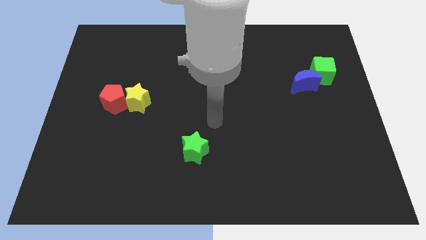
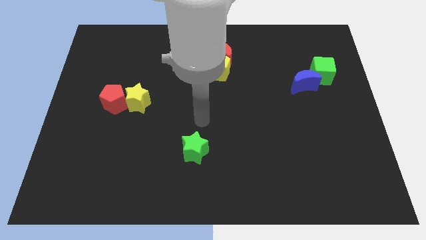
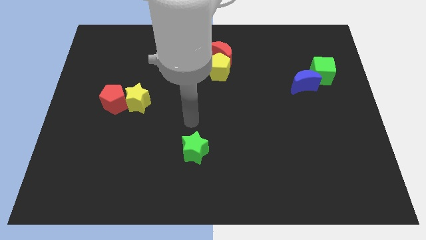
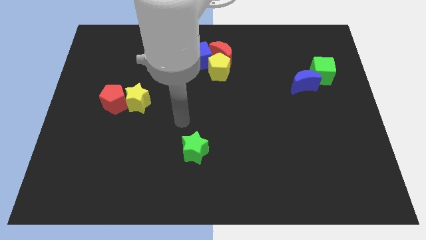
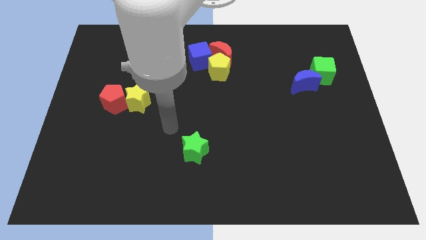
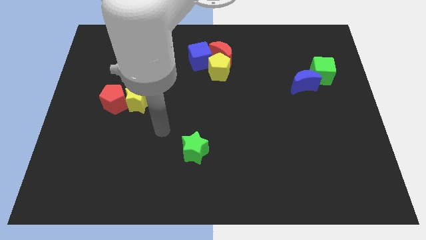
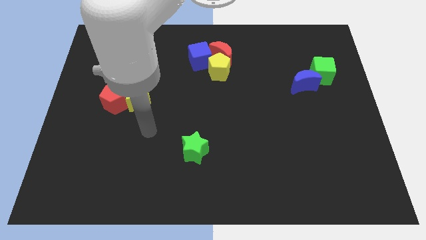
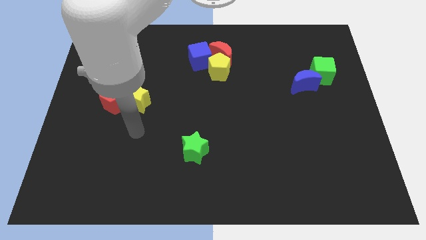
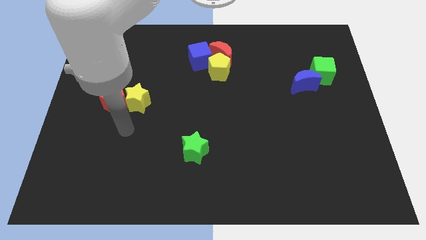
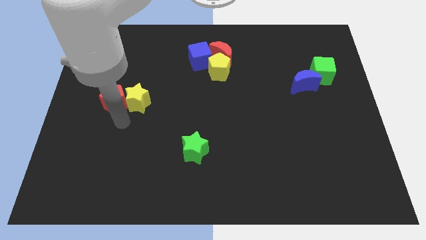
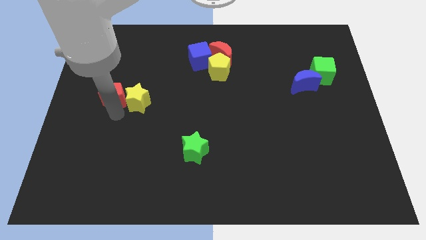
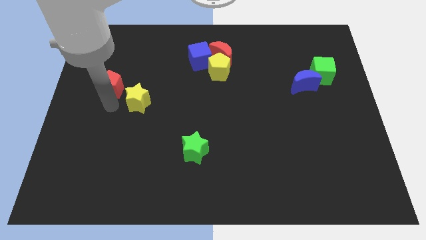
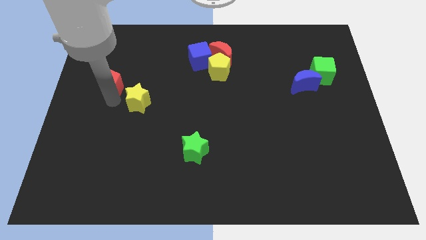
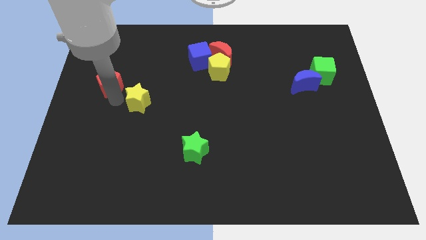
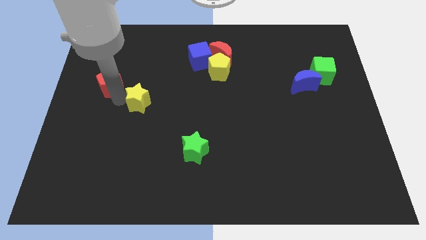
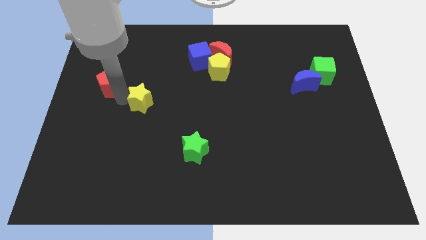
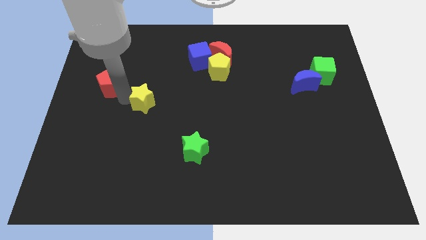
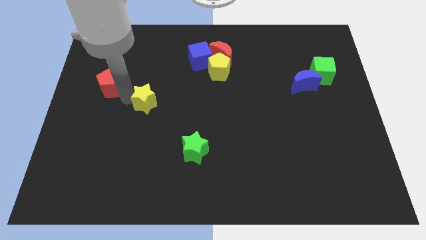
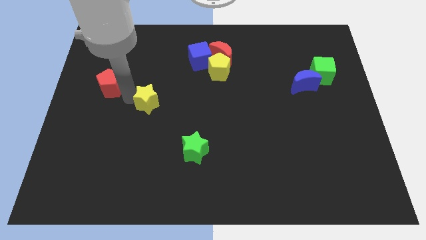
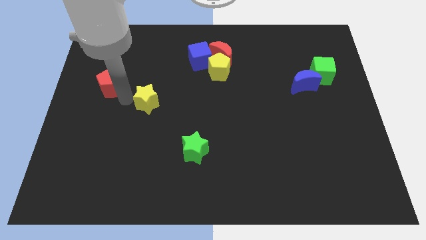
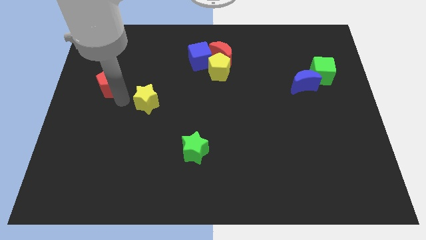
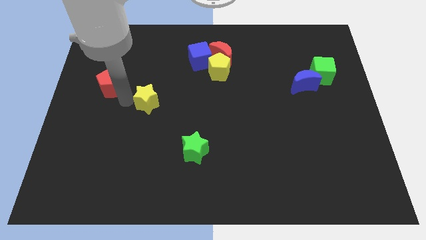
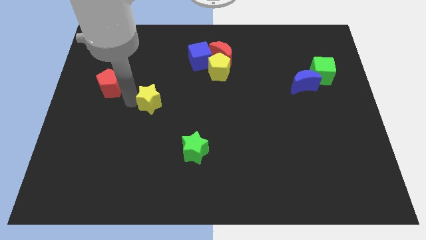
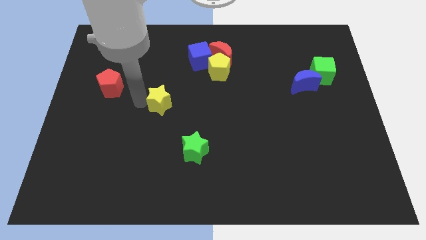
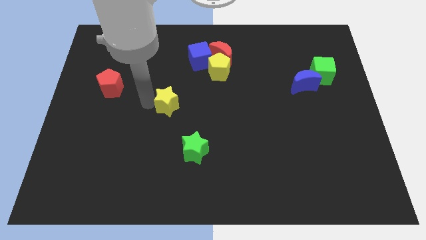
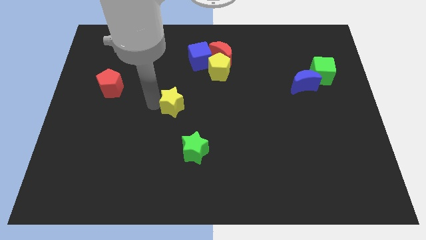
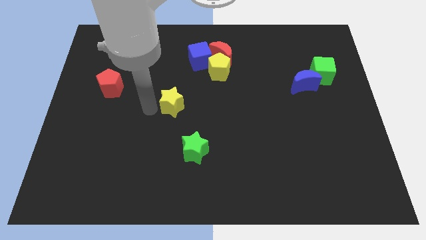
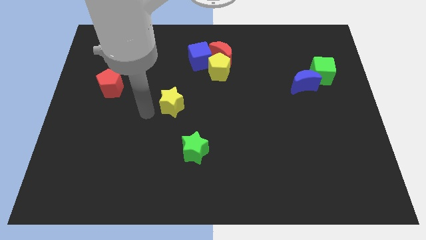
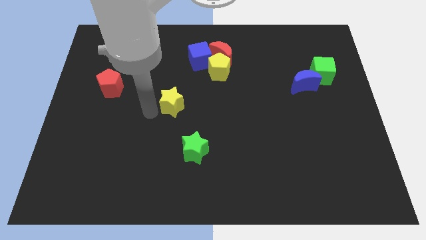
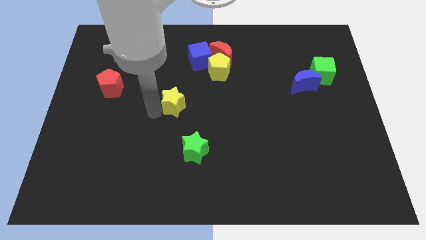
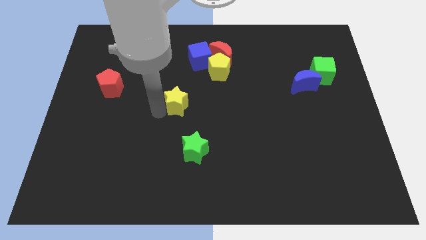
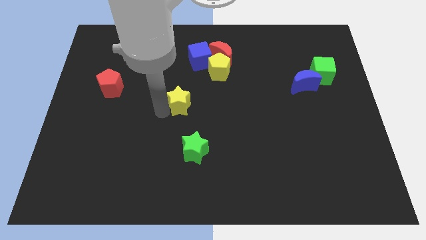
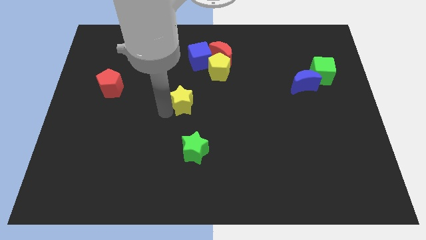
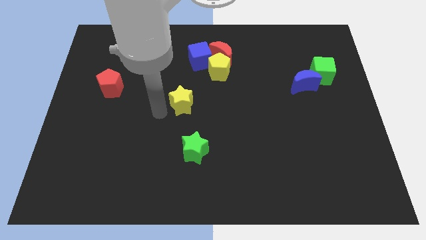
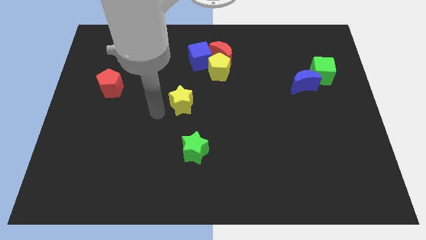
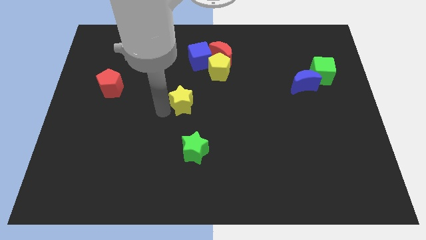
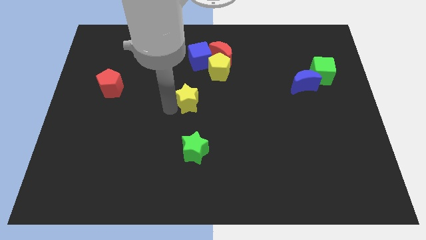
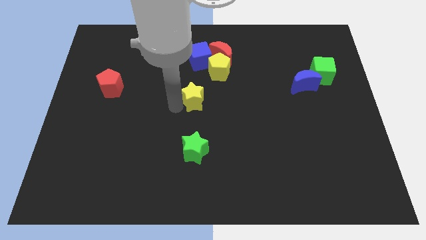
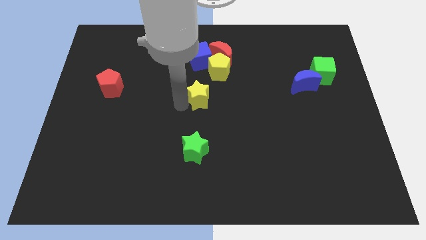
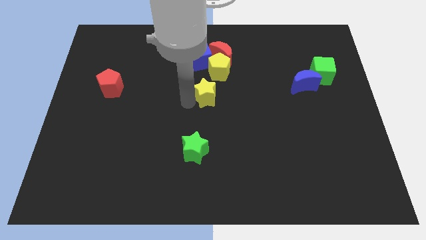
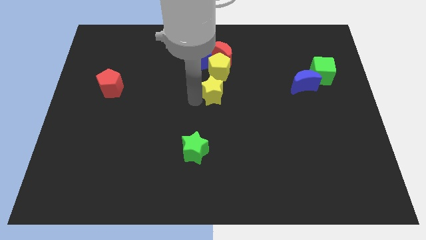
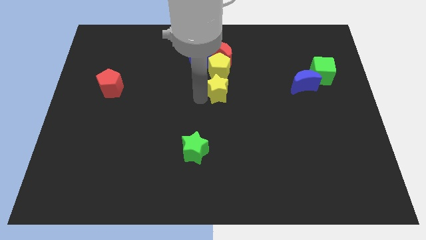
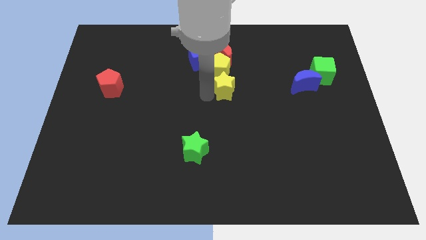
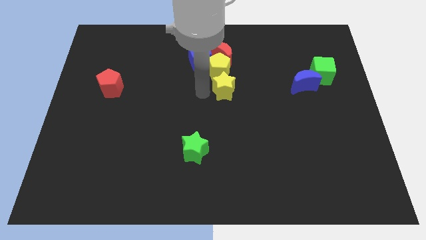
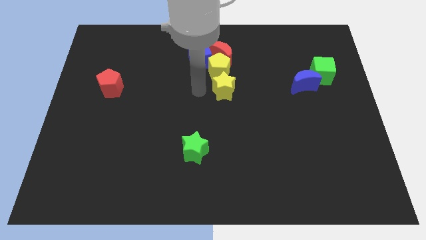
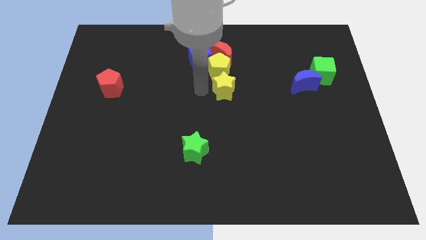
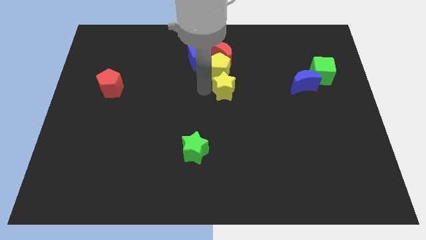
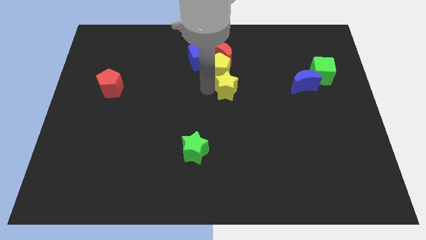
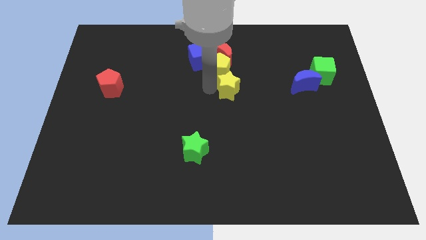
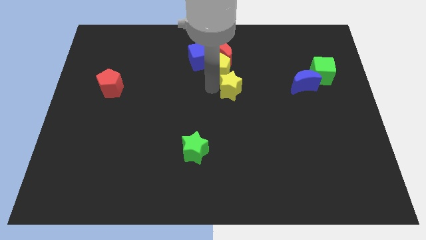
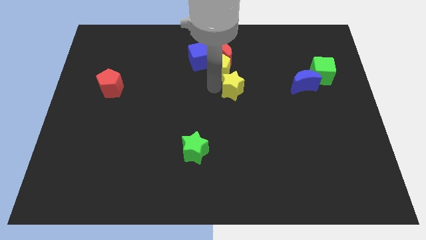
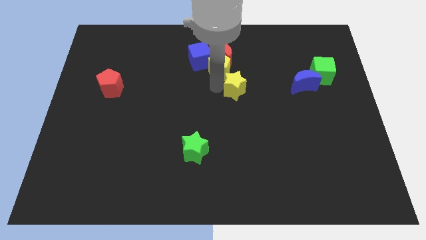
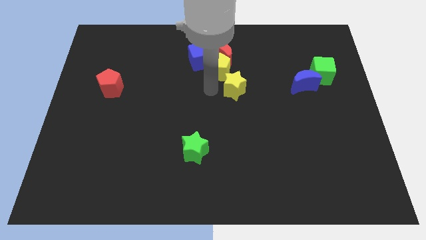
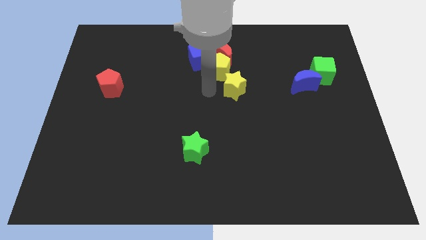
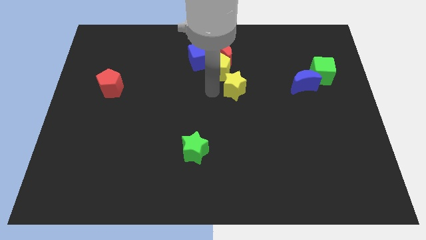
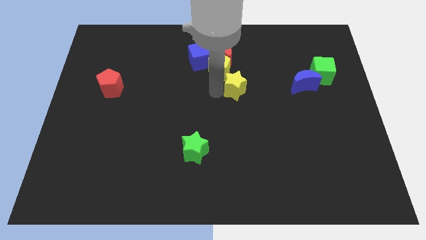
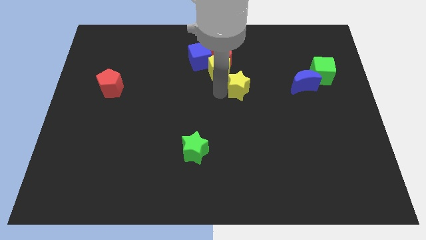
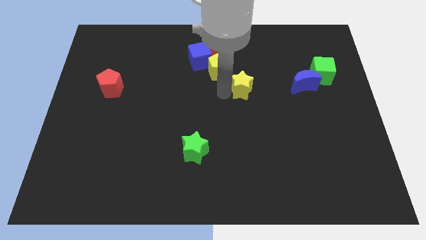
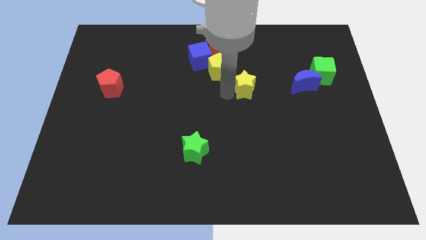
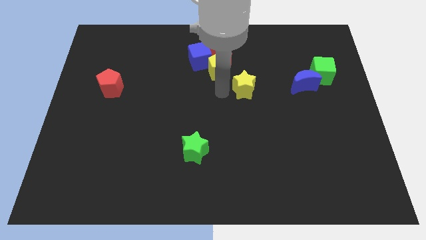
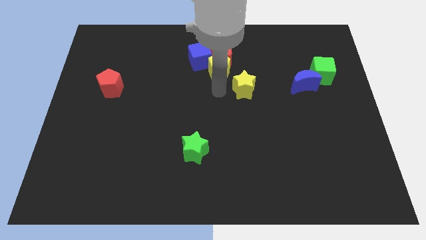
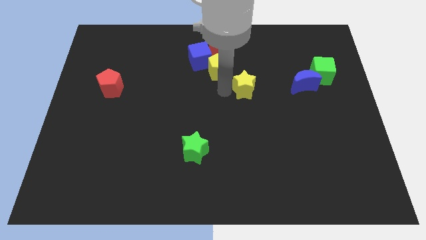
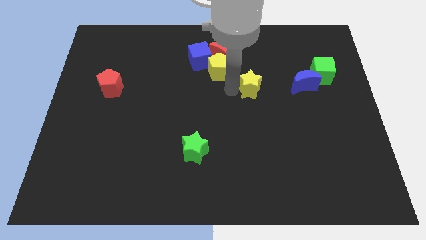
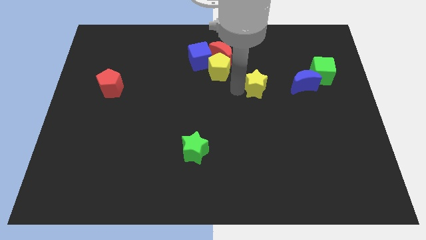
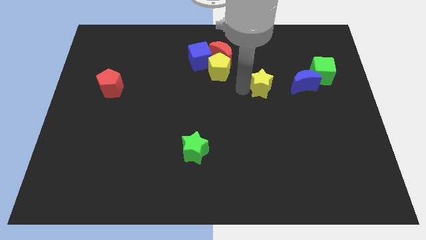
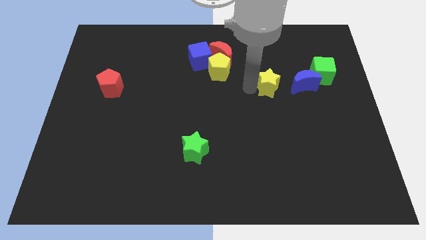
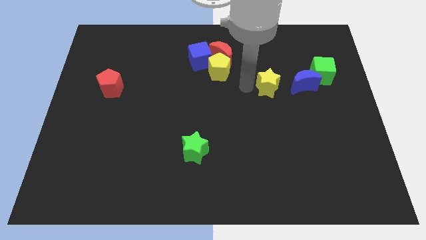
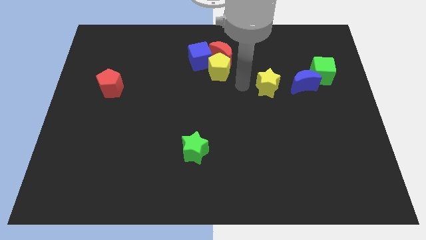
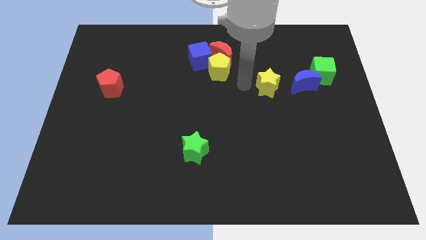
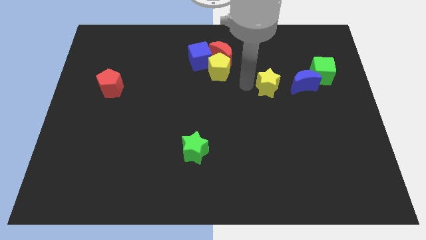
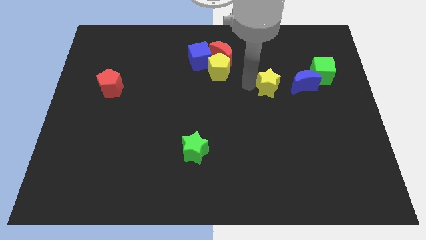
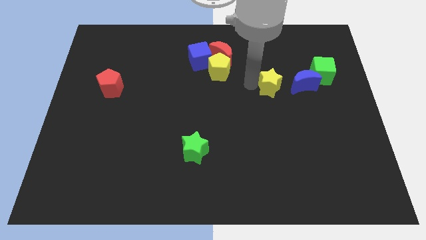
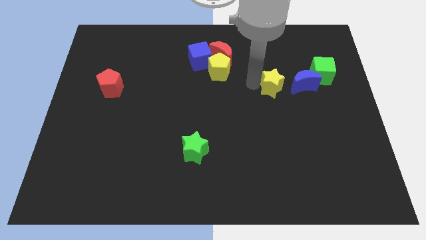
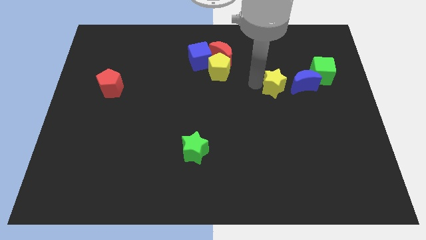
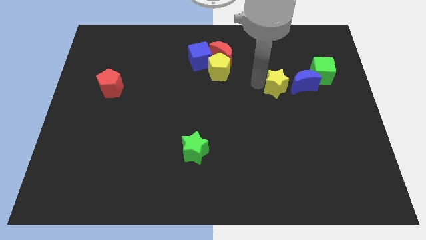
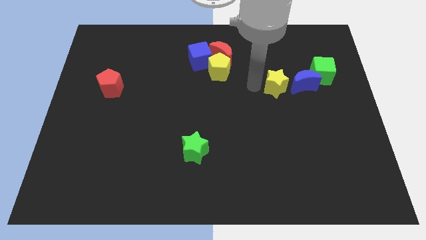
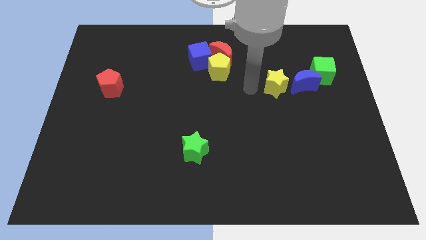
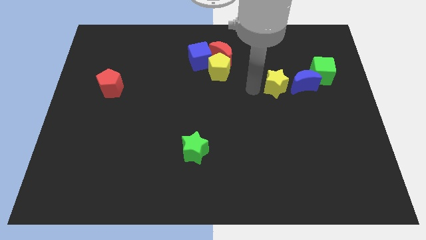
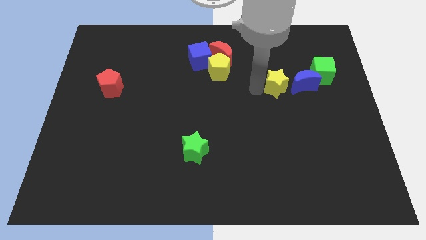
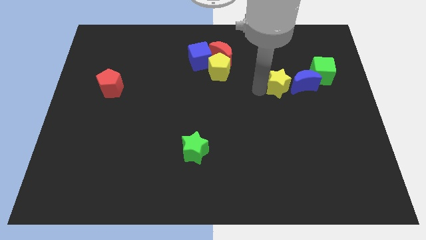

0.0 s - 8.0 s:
slide the yellow star to the blue moon
